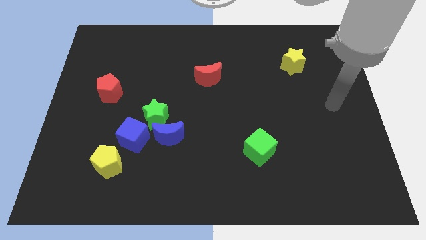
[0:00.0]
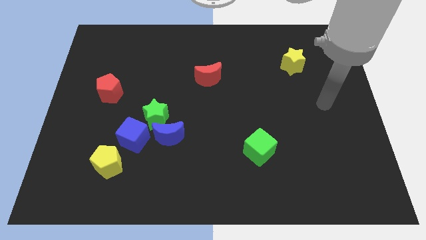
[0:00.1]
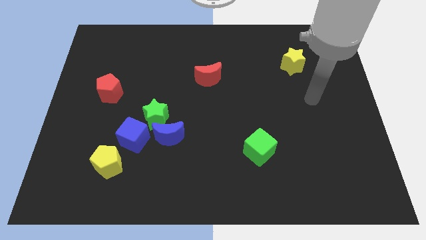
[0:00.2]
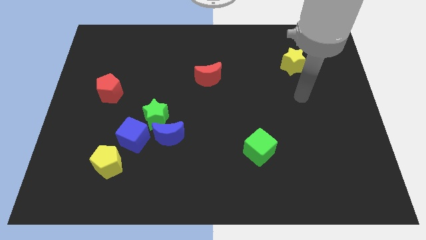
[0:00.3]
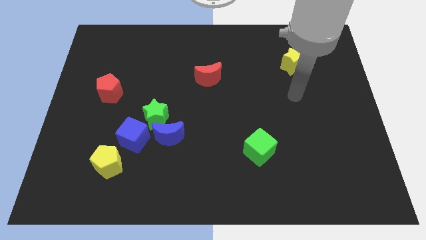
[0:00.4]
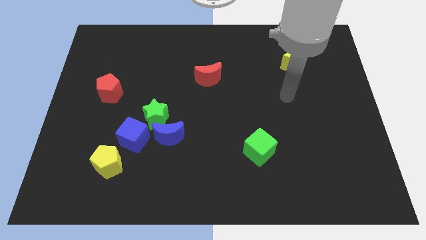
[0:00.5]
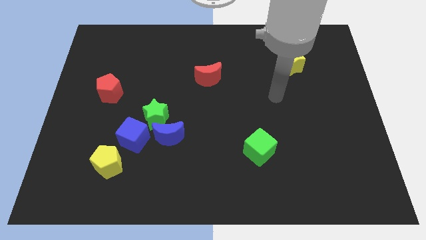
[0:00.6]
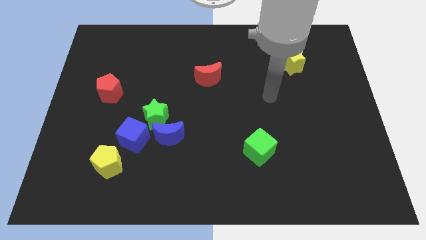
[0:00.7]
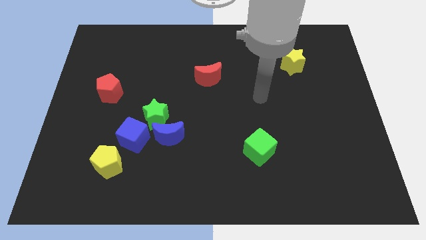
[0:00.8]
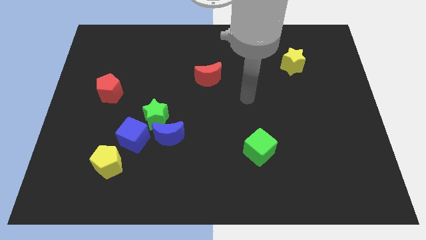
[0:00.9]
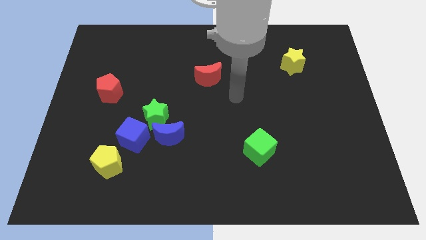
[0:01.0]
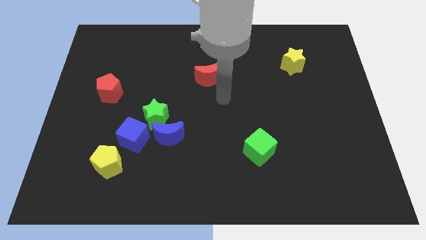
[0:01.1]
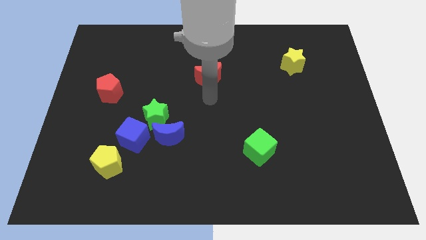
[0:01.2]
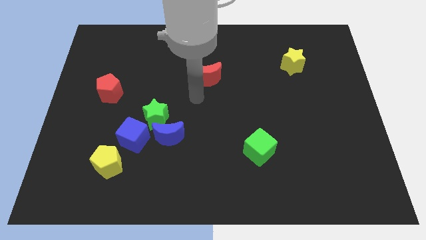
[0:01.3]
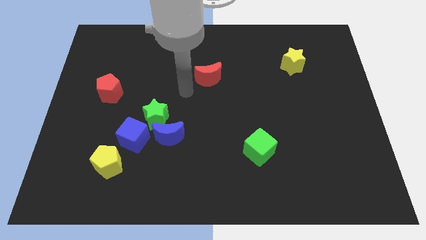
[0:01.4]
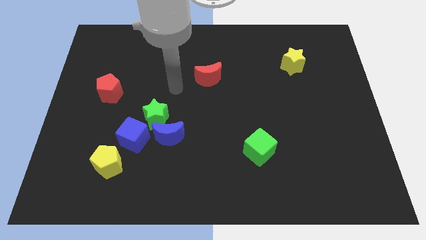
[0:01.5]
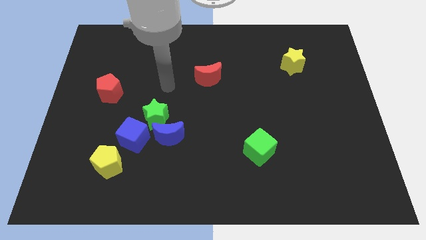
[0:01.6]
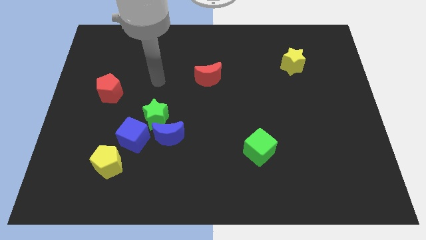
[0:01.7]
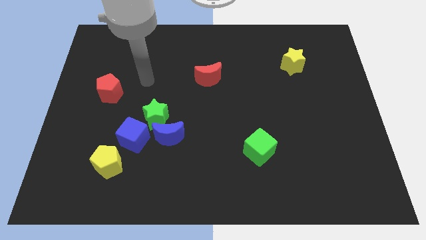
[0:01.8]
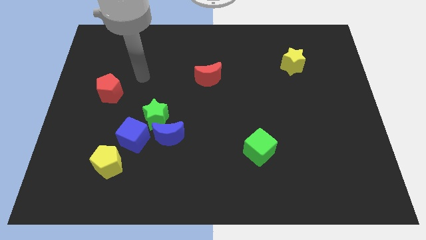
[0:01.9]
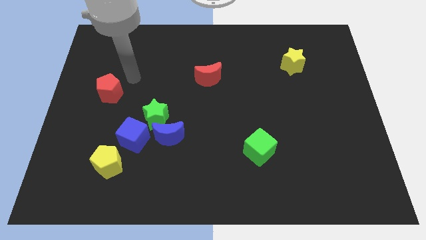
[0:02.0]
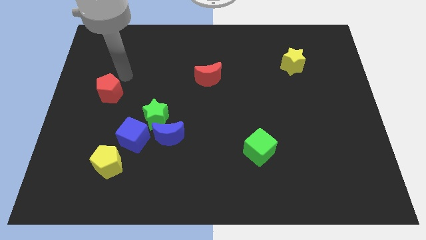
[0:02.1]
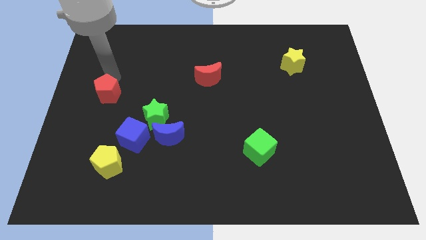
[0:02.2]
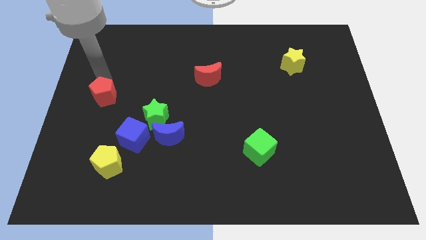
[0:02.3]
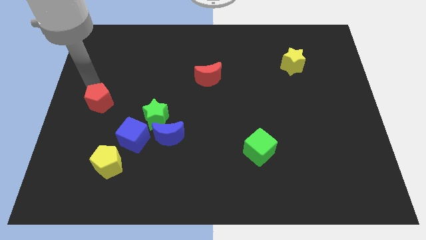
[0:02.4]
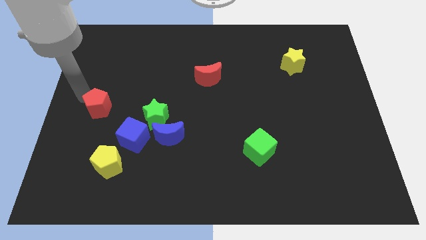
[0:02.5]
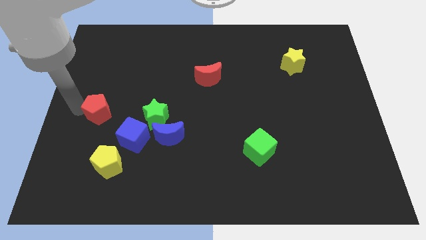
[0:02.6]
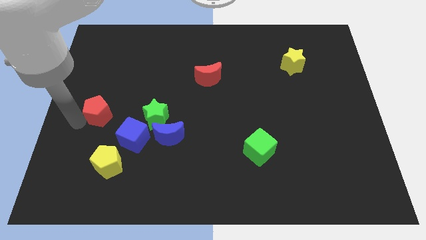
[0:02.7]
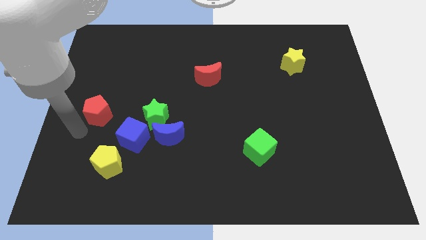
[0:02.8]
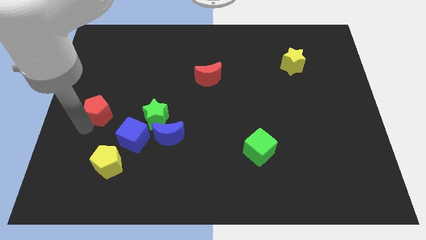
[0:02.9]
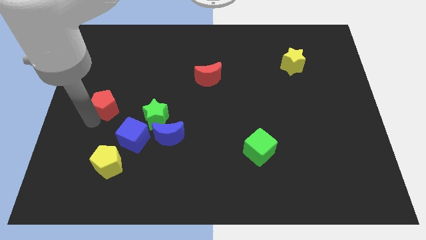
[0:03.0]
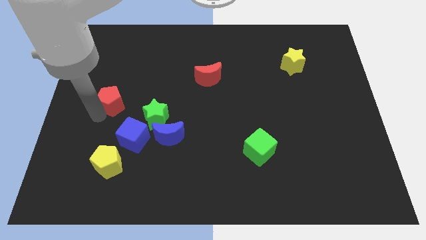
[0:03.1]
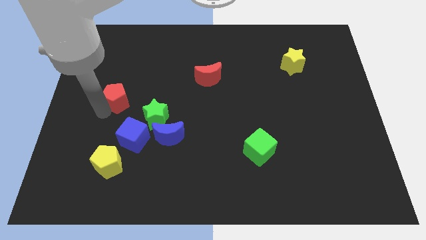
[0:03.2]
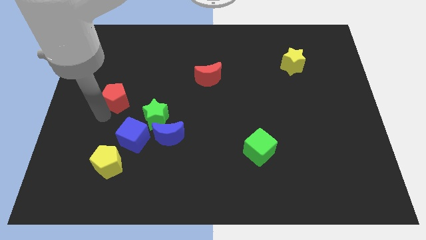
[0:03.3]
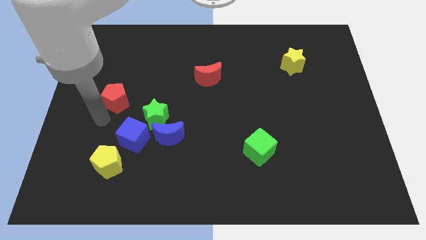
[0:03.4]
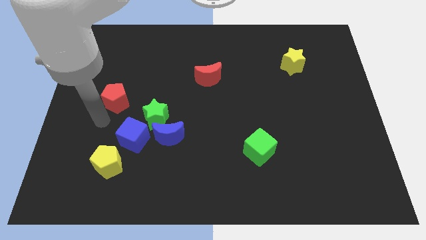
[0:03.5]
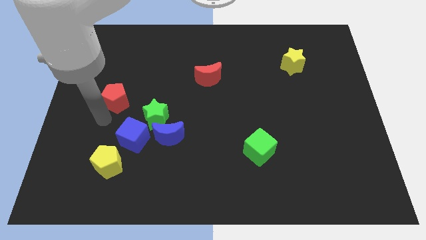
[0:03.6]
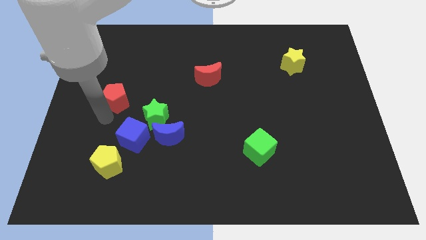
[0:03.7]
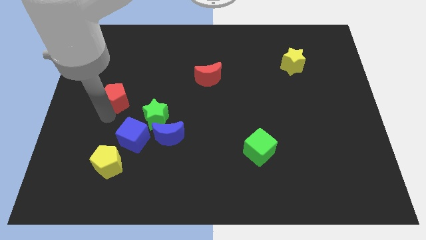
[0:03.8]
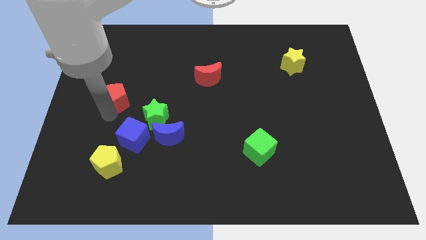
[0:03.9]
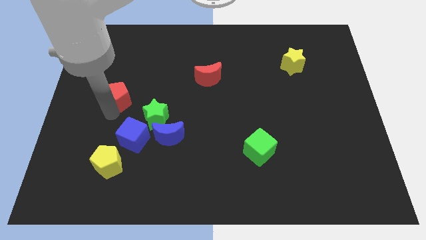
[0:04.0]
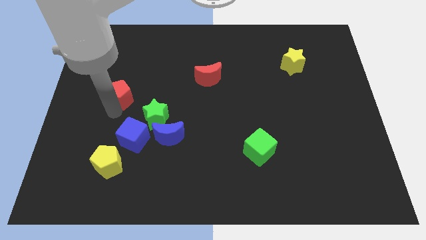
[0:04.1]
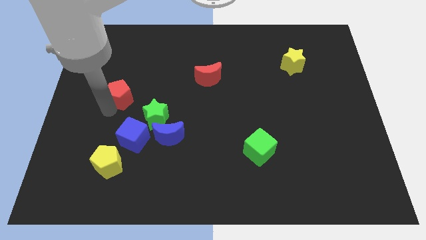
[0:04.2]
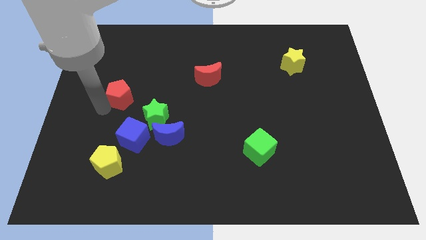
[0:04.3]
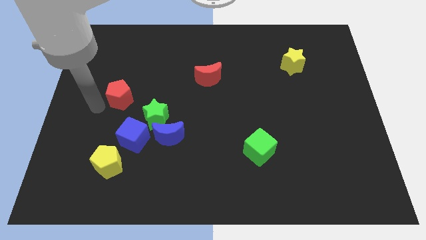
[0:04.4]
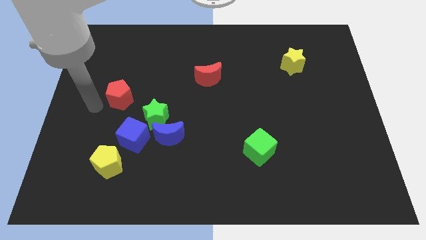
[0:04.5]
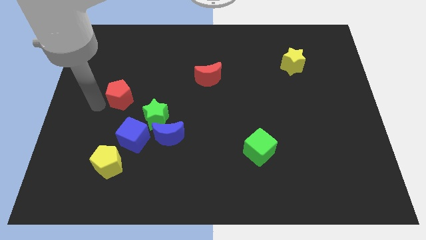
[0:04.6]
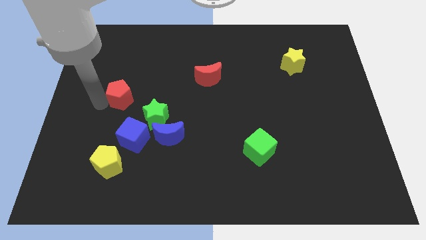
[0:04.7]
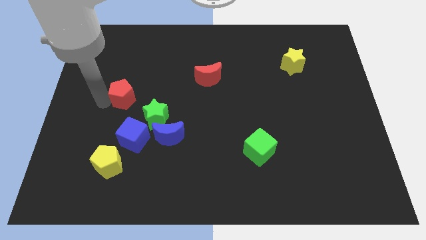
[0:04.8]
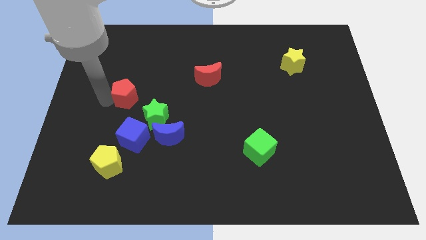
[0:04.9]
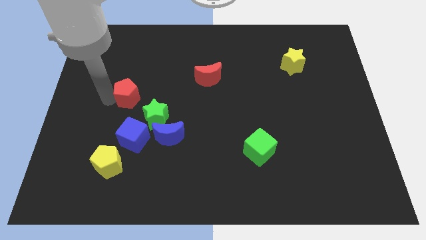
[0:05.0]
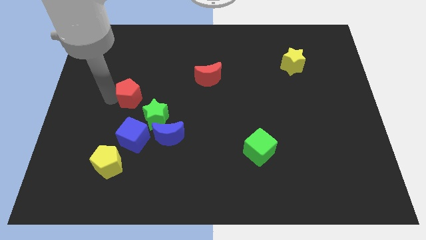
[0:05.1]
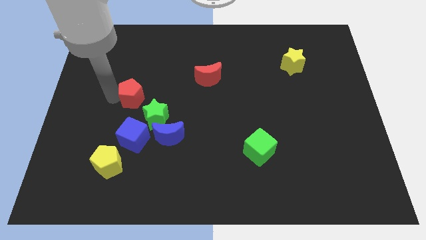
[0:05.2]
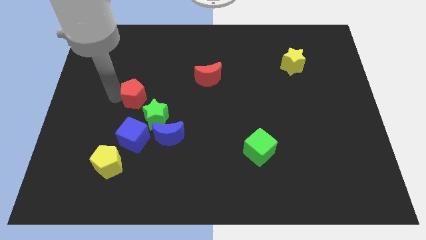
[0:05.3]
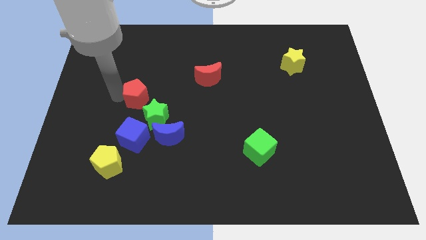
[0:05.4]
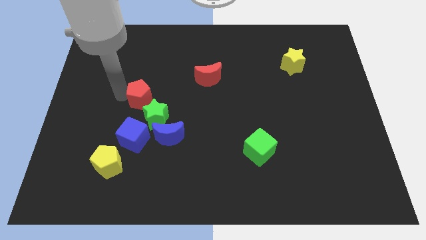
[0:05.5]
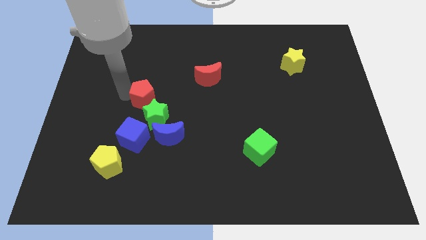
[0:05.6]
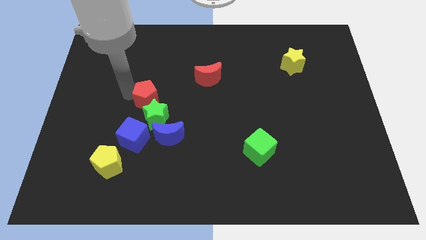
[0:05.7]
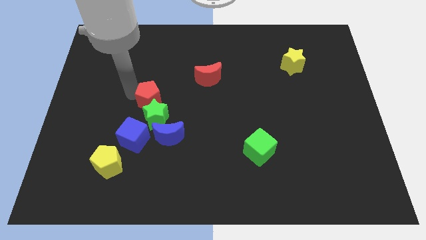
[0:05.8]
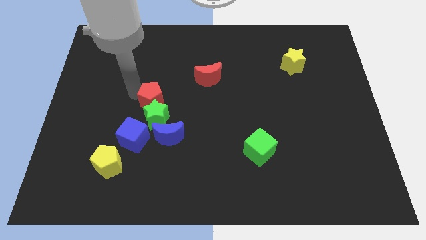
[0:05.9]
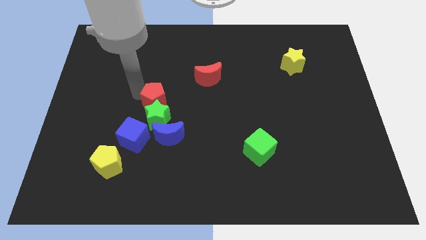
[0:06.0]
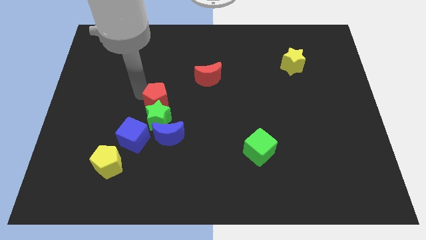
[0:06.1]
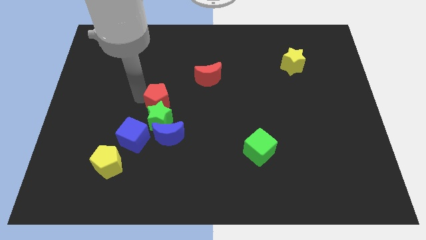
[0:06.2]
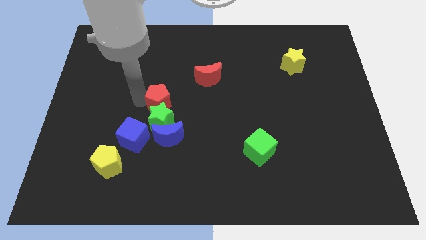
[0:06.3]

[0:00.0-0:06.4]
put the red pentagon to the center

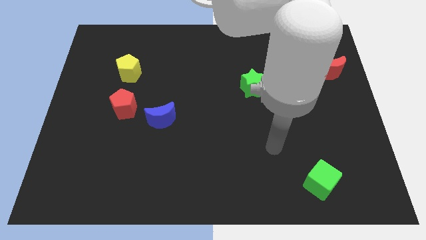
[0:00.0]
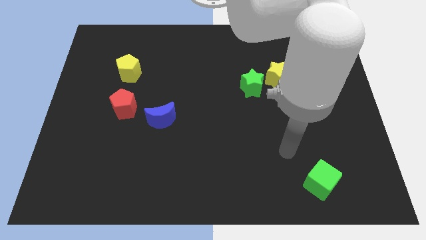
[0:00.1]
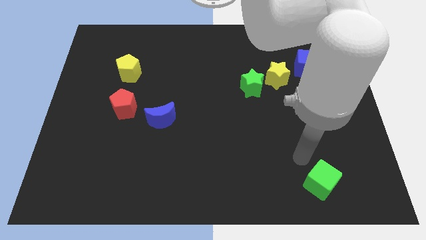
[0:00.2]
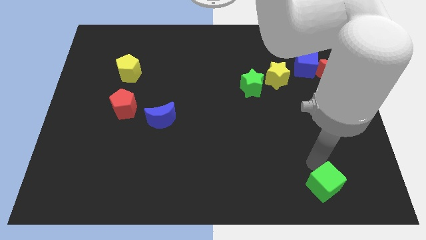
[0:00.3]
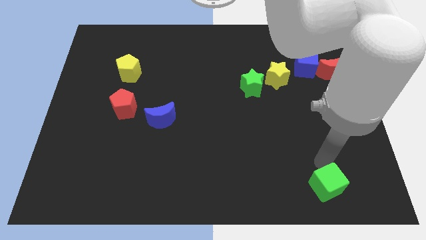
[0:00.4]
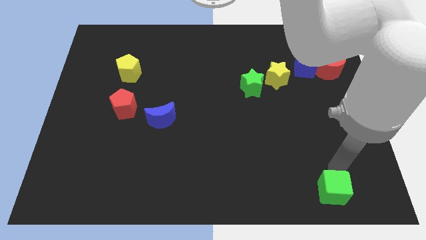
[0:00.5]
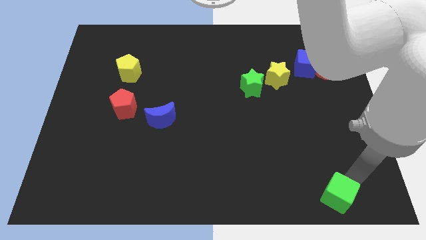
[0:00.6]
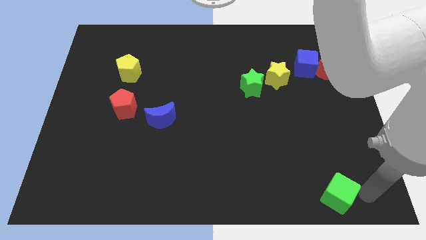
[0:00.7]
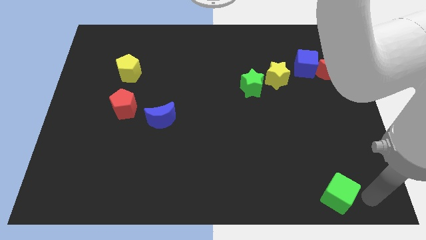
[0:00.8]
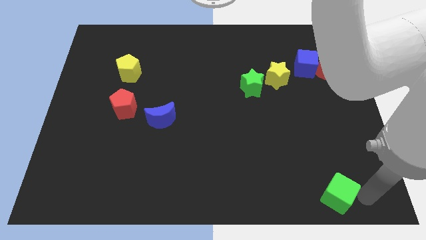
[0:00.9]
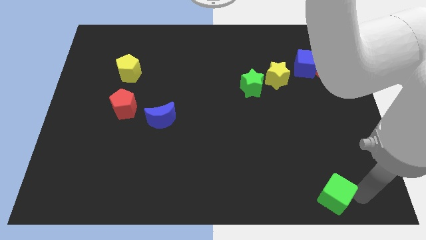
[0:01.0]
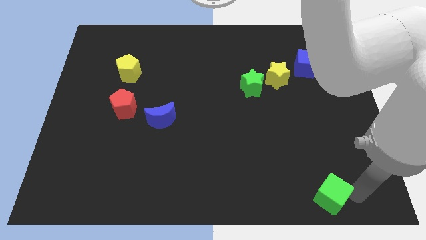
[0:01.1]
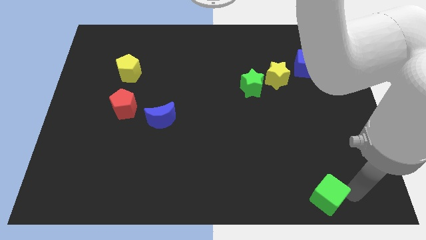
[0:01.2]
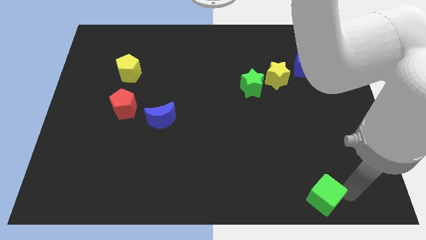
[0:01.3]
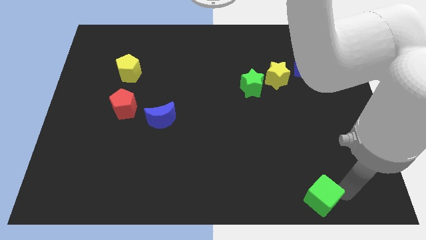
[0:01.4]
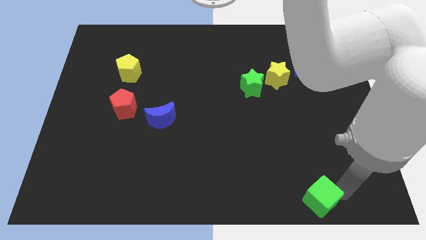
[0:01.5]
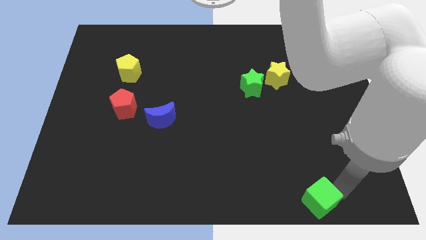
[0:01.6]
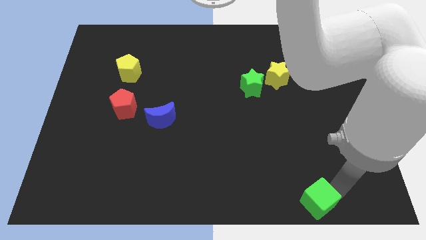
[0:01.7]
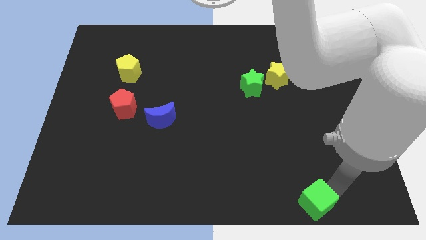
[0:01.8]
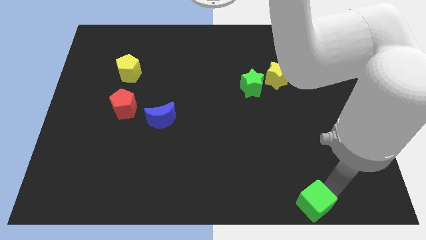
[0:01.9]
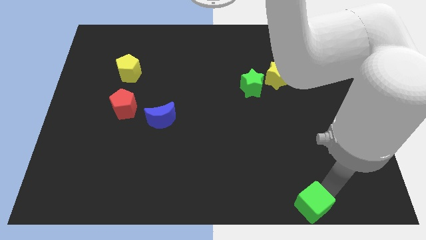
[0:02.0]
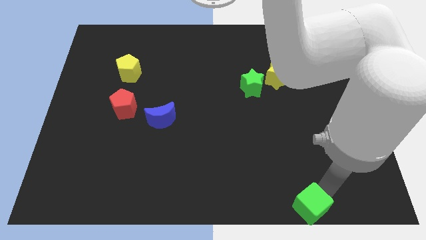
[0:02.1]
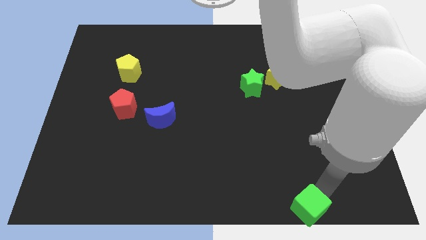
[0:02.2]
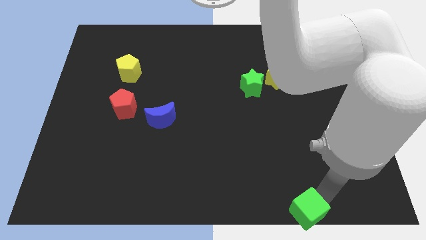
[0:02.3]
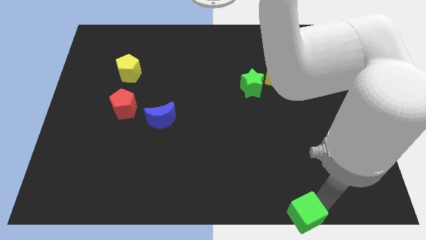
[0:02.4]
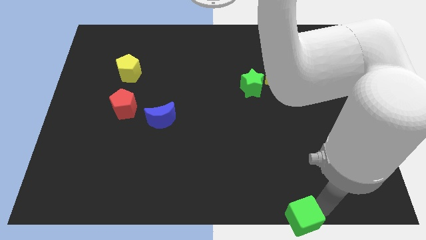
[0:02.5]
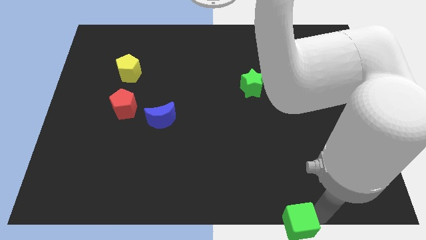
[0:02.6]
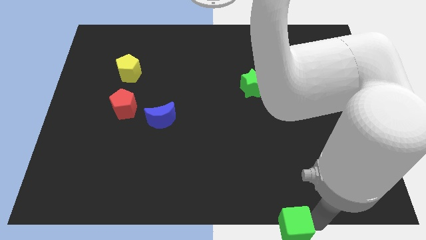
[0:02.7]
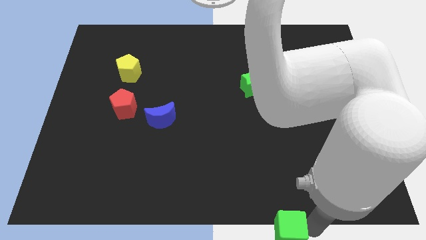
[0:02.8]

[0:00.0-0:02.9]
put the green cube to the bottom side
